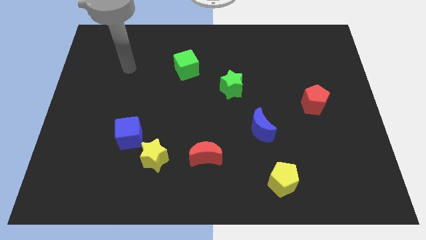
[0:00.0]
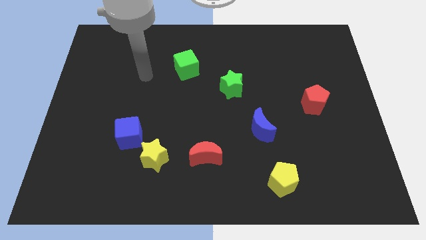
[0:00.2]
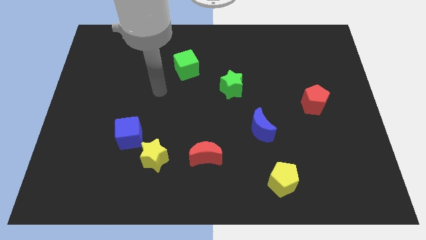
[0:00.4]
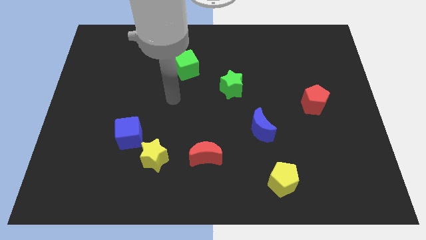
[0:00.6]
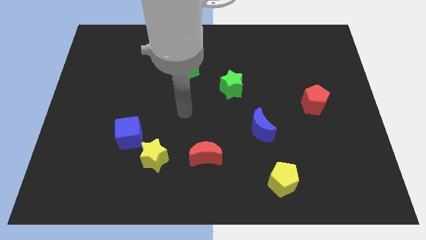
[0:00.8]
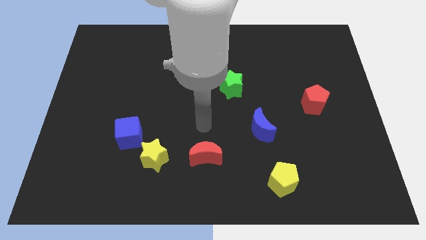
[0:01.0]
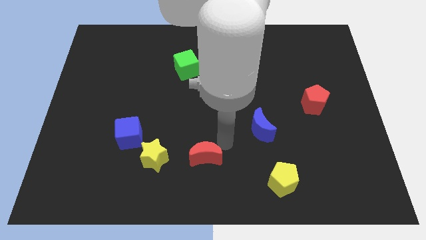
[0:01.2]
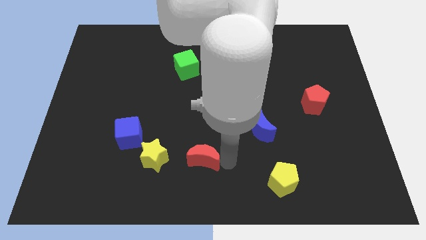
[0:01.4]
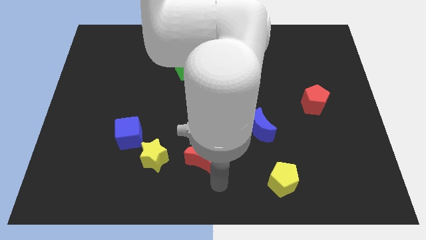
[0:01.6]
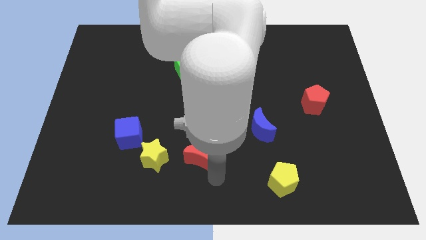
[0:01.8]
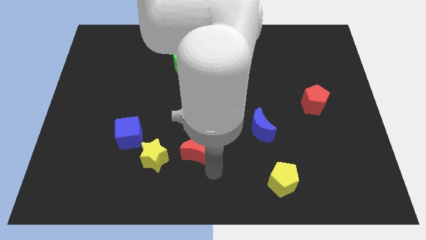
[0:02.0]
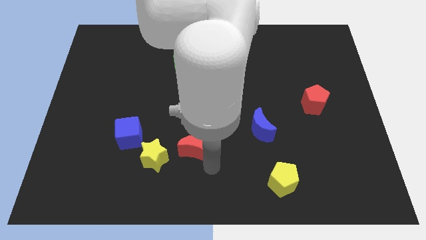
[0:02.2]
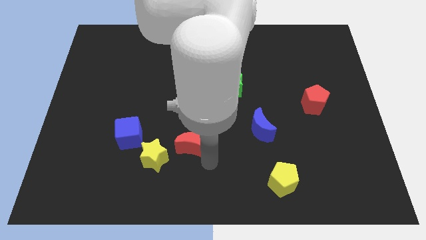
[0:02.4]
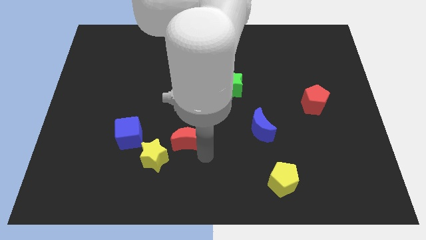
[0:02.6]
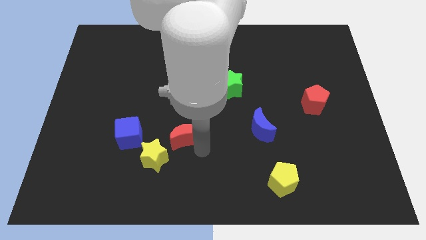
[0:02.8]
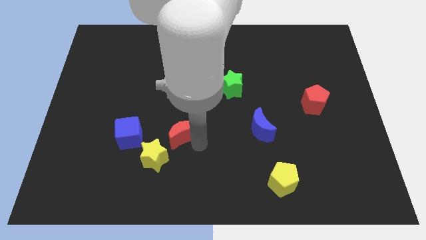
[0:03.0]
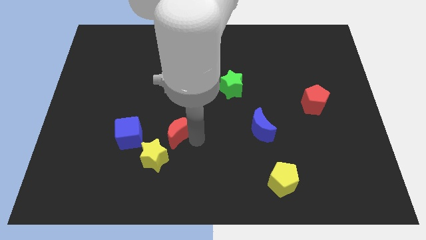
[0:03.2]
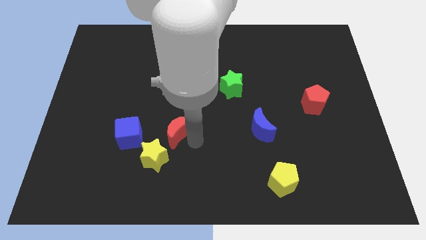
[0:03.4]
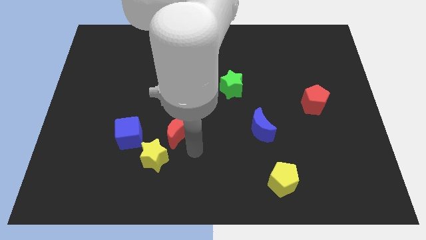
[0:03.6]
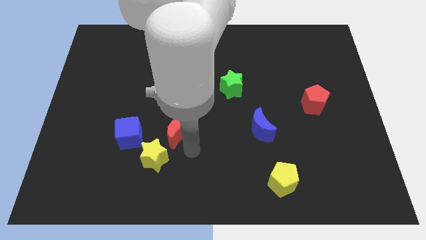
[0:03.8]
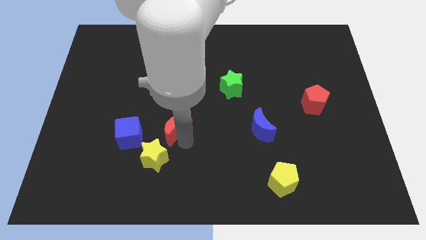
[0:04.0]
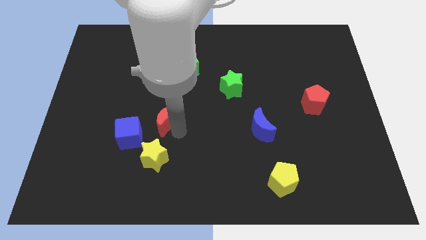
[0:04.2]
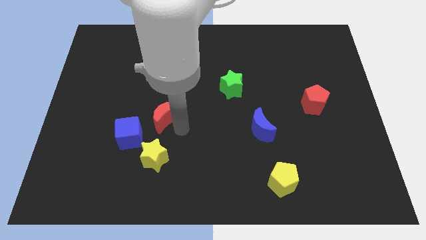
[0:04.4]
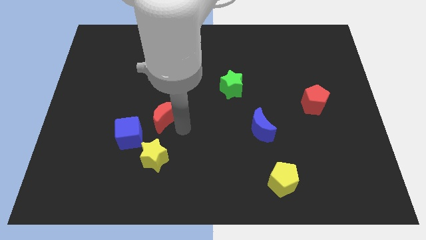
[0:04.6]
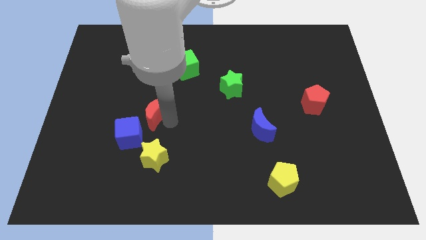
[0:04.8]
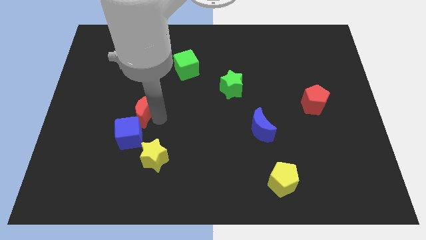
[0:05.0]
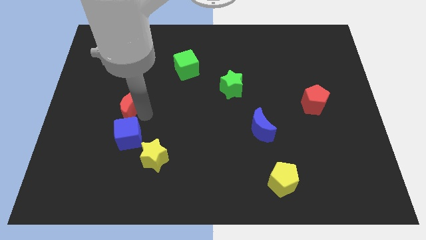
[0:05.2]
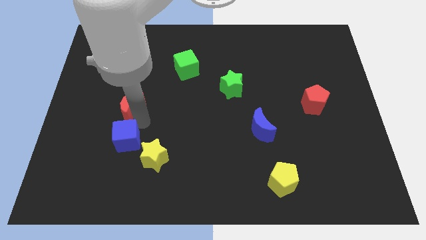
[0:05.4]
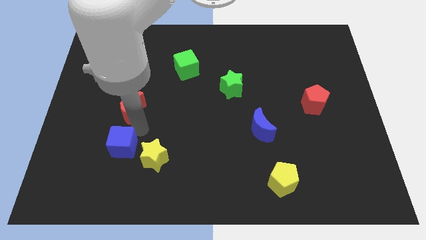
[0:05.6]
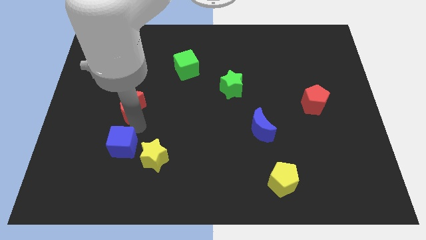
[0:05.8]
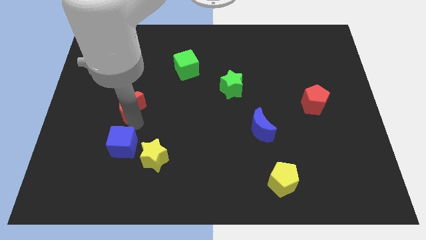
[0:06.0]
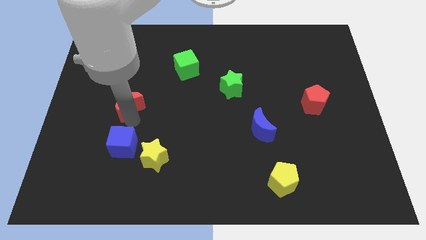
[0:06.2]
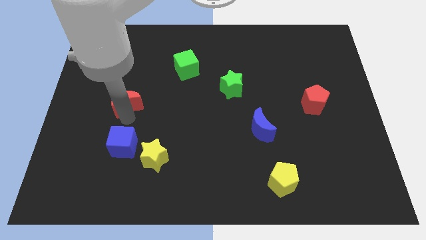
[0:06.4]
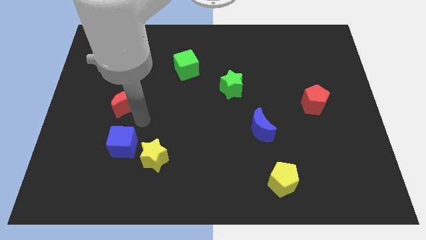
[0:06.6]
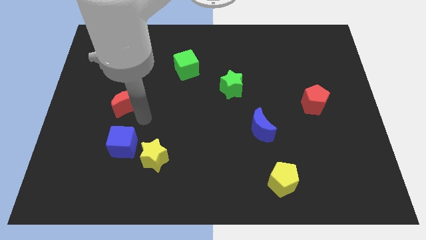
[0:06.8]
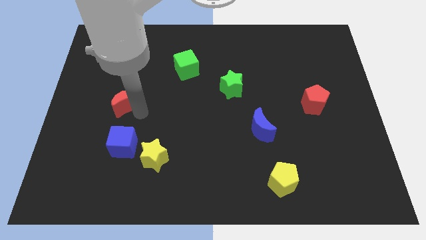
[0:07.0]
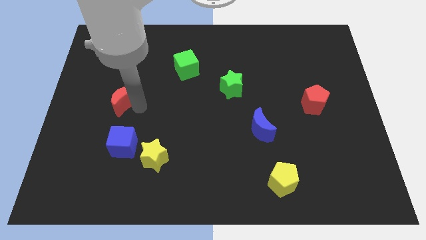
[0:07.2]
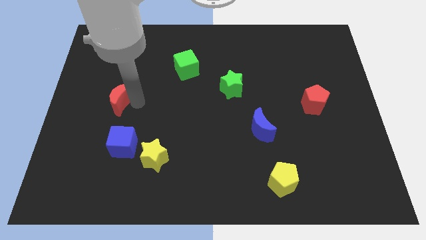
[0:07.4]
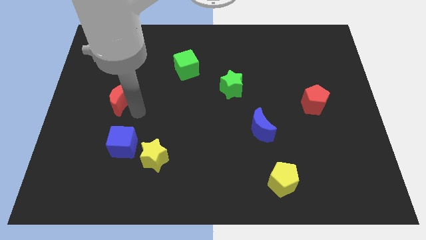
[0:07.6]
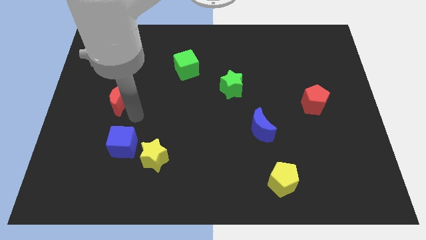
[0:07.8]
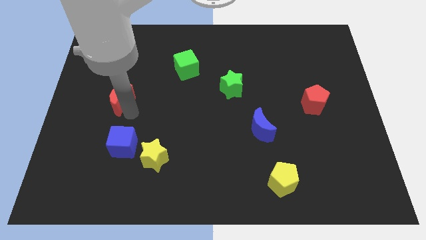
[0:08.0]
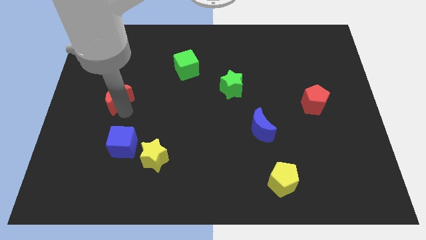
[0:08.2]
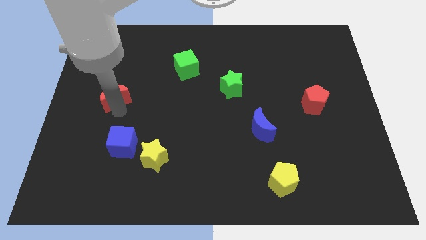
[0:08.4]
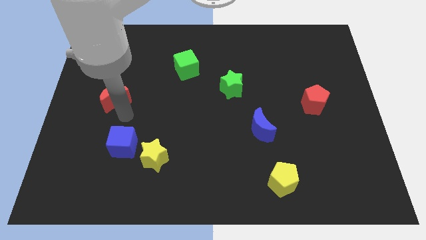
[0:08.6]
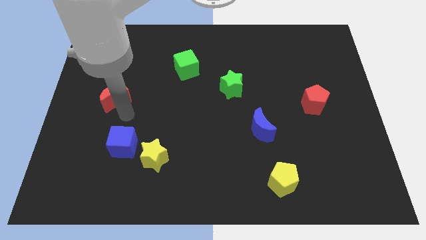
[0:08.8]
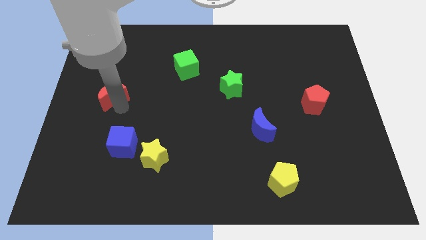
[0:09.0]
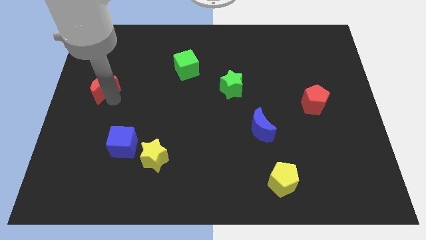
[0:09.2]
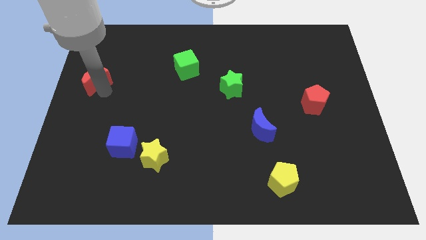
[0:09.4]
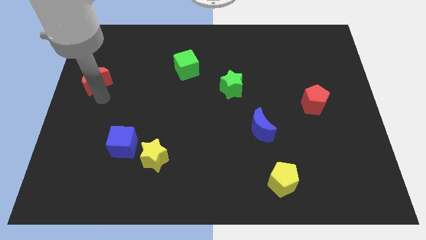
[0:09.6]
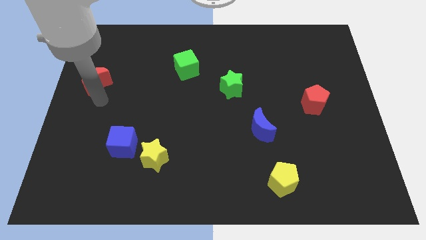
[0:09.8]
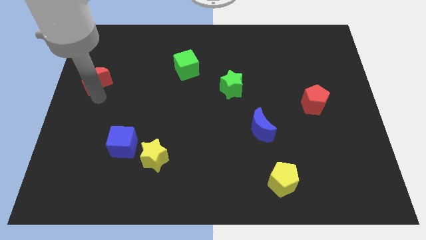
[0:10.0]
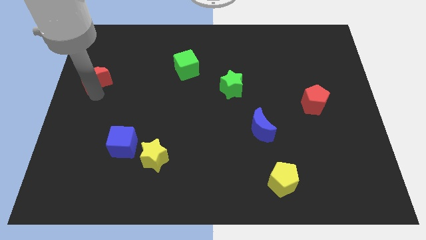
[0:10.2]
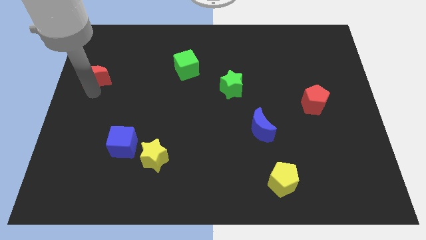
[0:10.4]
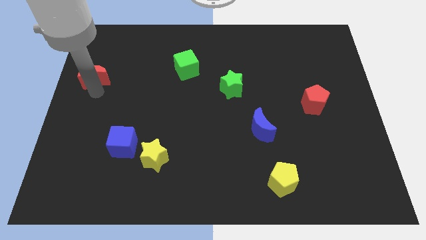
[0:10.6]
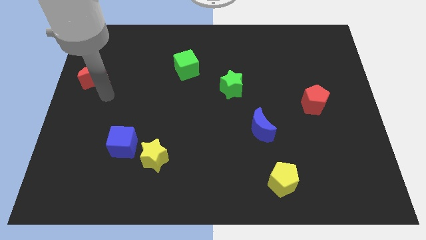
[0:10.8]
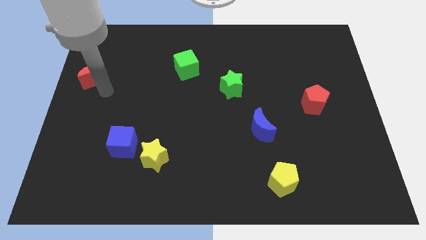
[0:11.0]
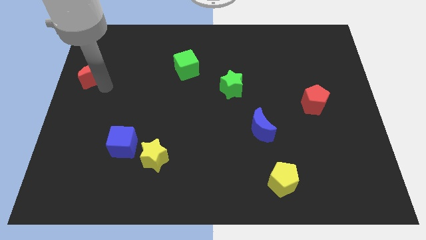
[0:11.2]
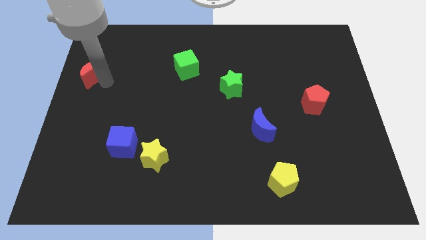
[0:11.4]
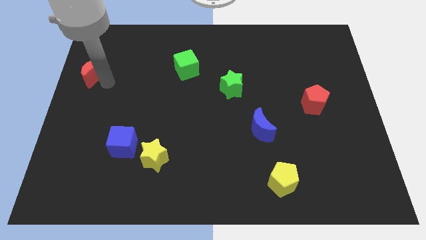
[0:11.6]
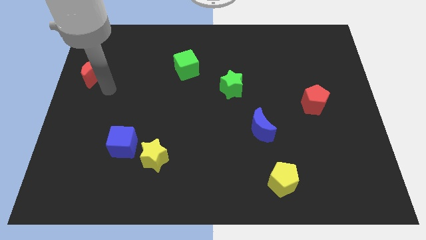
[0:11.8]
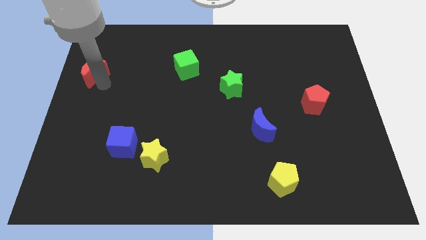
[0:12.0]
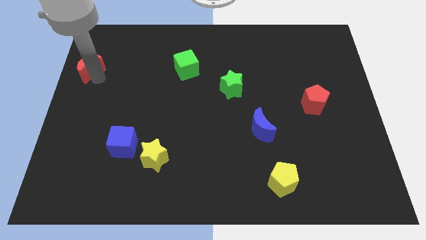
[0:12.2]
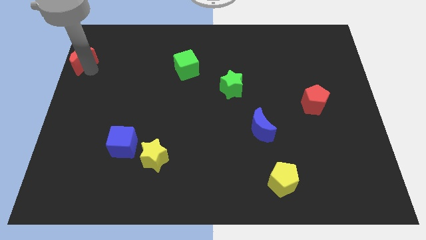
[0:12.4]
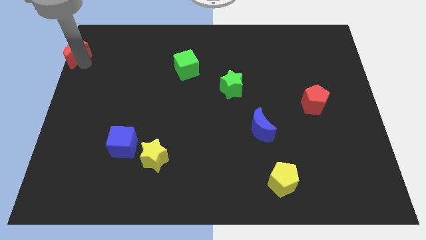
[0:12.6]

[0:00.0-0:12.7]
slide the red moon to the top left corner
